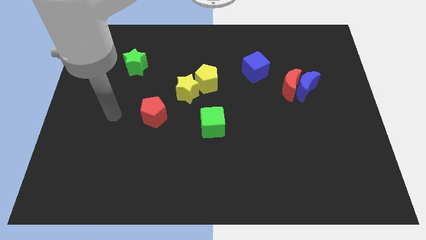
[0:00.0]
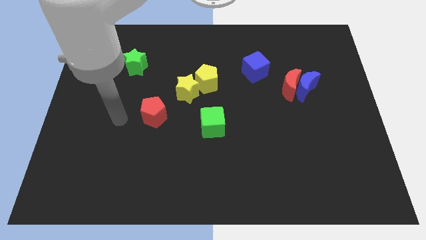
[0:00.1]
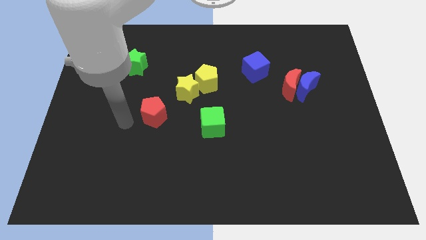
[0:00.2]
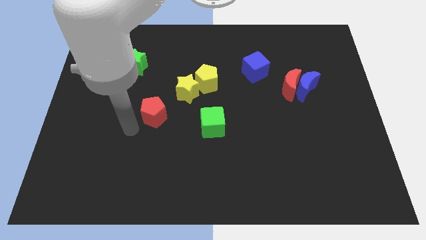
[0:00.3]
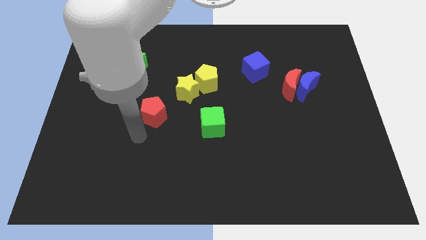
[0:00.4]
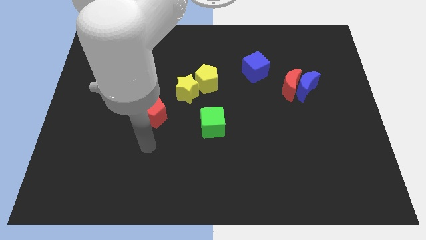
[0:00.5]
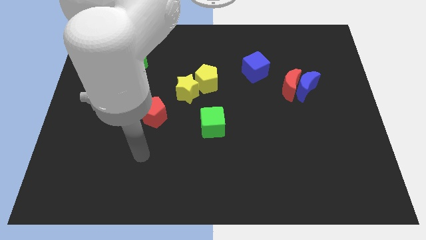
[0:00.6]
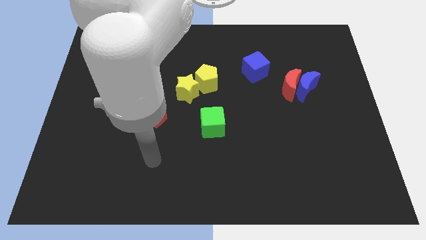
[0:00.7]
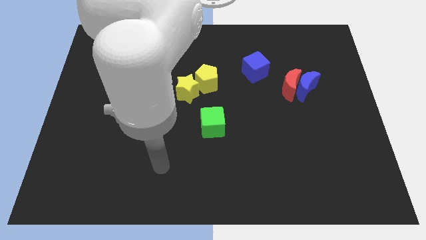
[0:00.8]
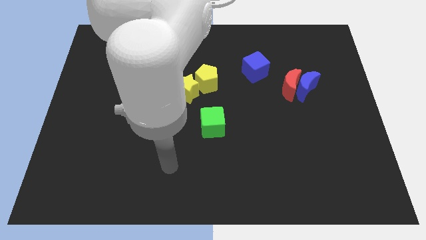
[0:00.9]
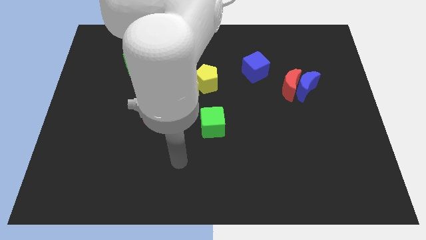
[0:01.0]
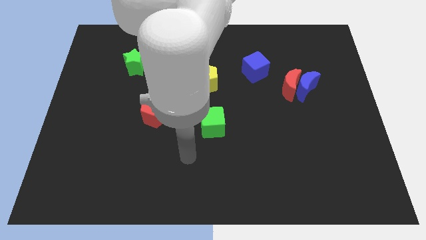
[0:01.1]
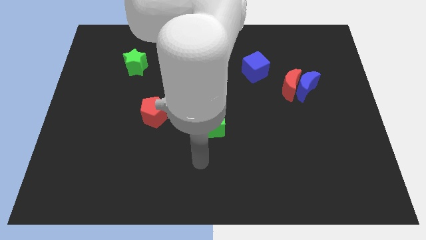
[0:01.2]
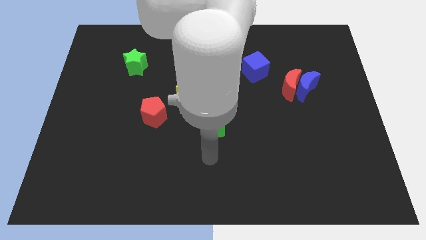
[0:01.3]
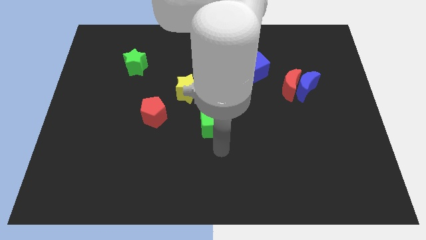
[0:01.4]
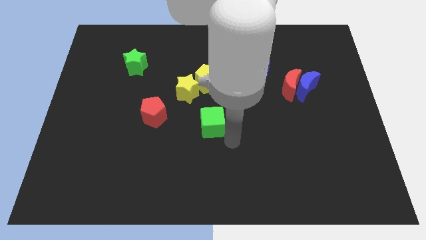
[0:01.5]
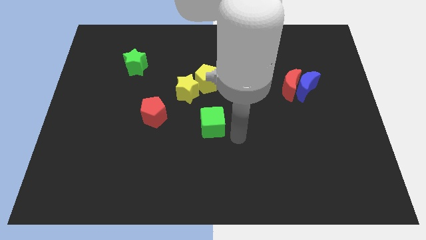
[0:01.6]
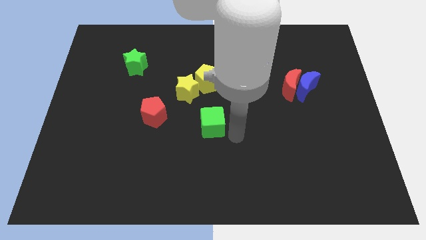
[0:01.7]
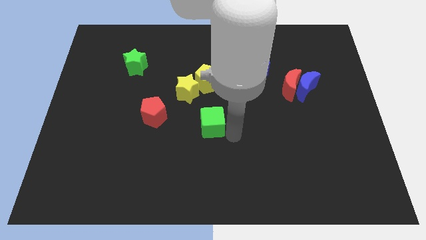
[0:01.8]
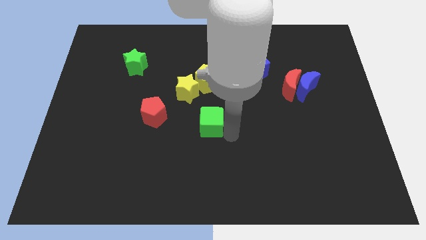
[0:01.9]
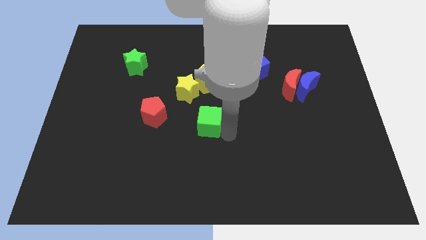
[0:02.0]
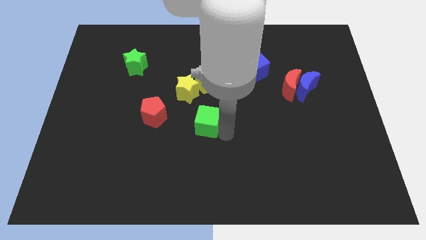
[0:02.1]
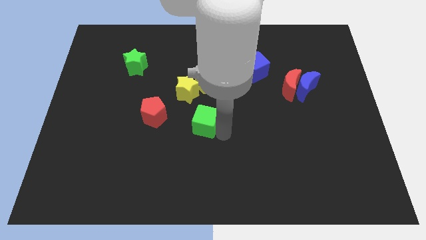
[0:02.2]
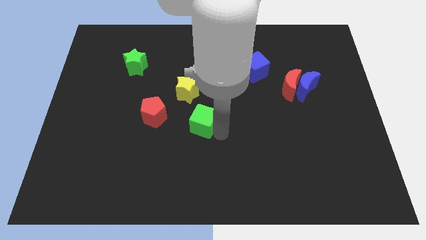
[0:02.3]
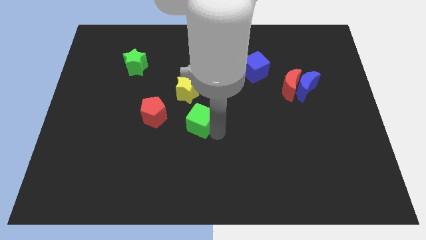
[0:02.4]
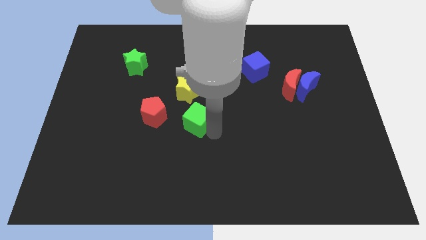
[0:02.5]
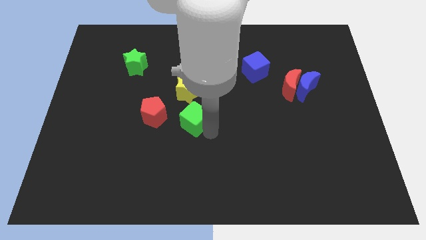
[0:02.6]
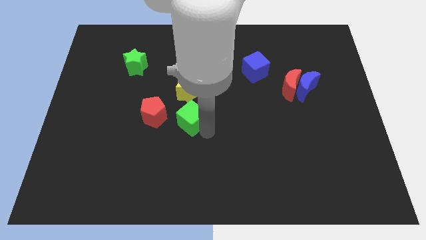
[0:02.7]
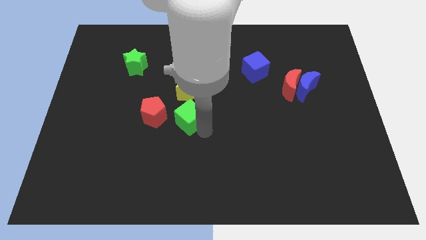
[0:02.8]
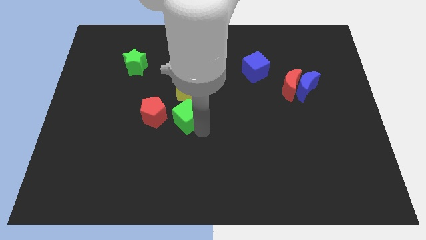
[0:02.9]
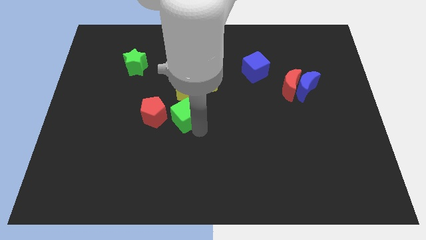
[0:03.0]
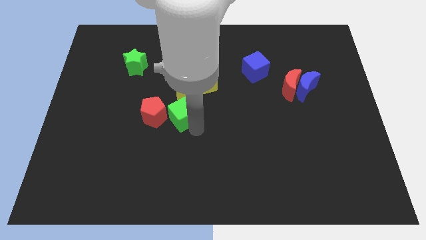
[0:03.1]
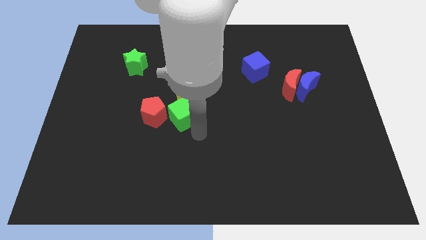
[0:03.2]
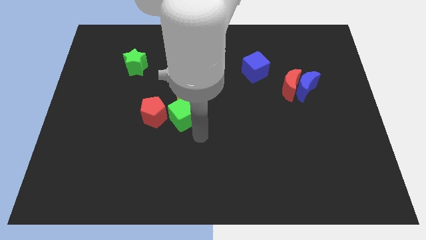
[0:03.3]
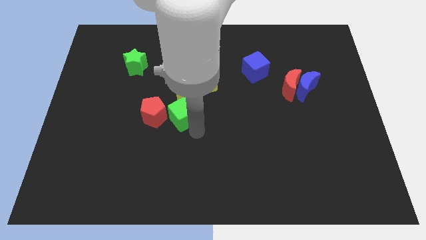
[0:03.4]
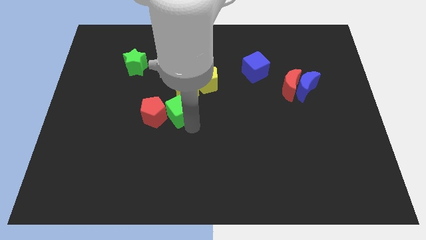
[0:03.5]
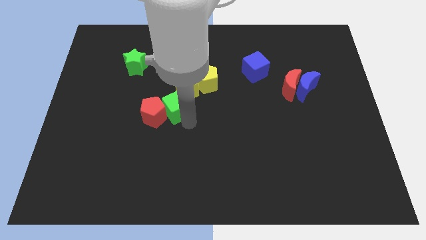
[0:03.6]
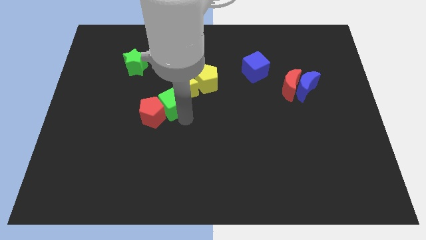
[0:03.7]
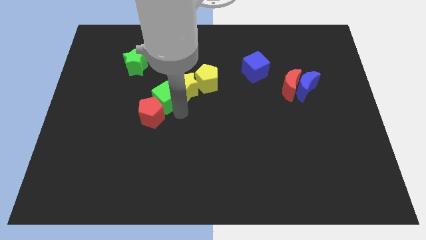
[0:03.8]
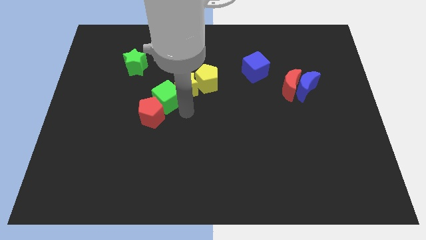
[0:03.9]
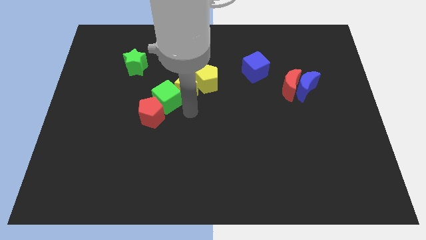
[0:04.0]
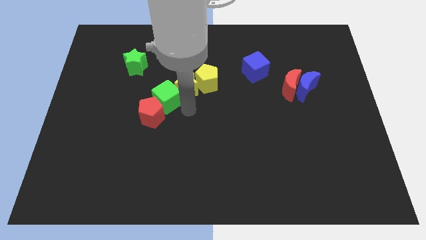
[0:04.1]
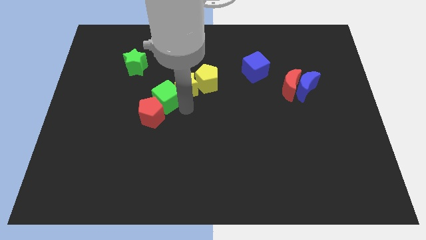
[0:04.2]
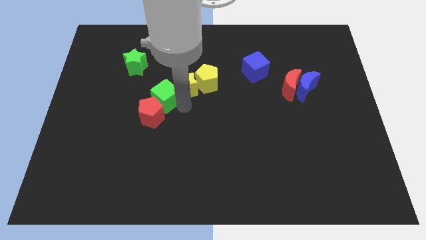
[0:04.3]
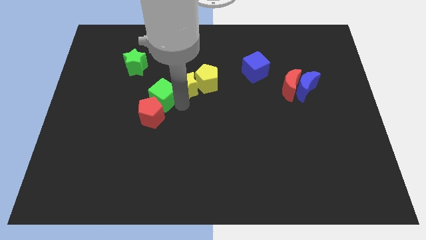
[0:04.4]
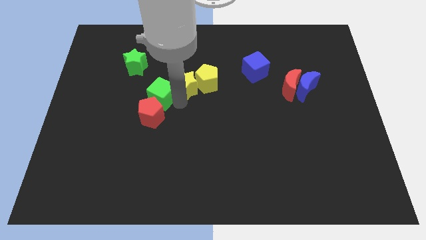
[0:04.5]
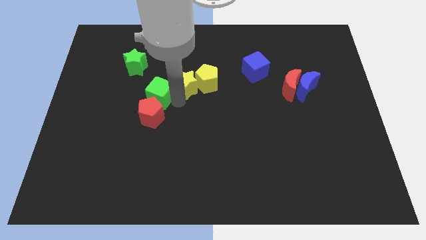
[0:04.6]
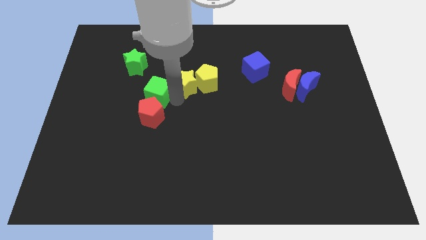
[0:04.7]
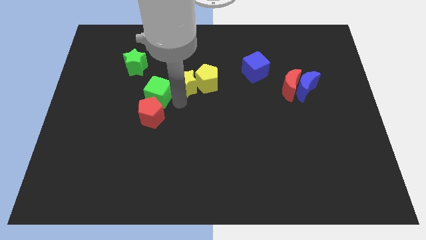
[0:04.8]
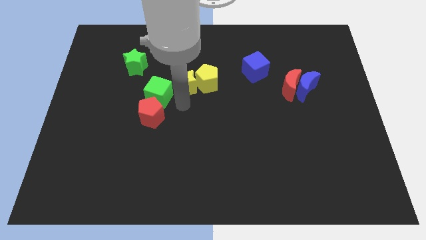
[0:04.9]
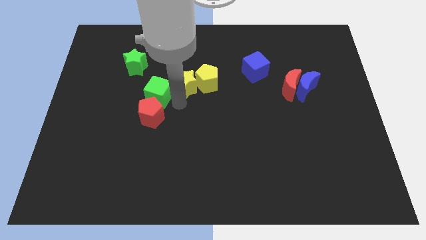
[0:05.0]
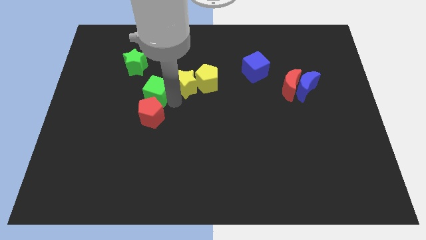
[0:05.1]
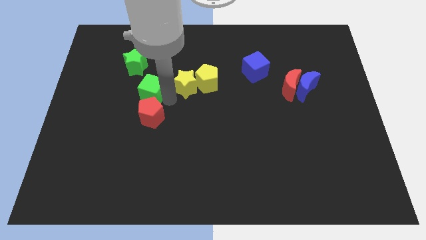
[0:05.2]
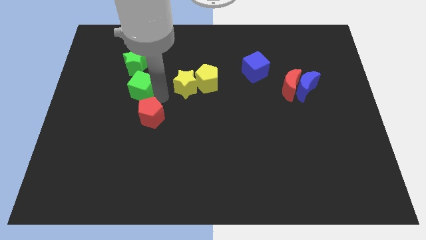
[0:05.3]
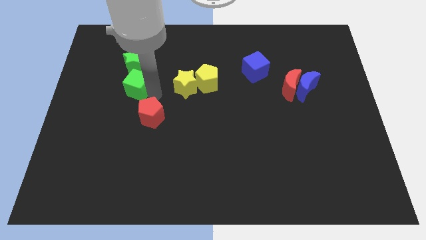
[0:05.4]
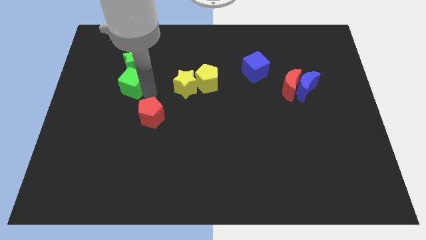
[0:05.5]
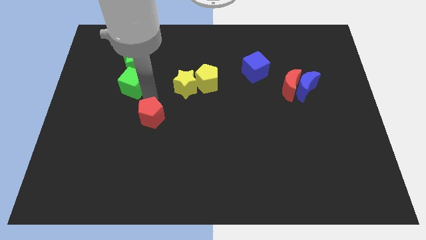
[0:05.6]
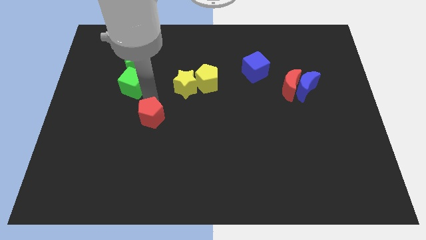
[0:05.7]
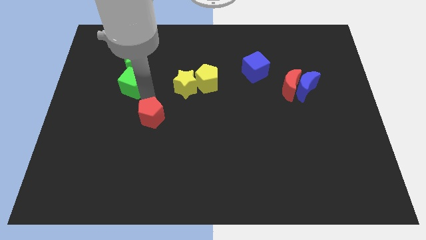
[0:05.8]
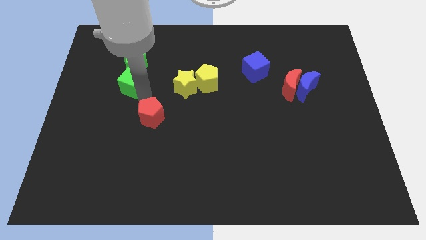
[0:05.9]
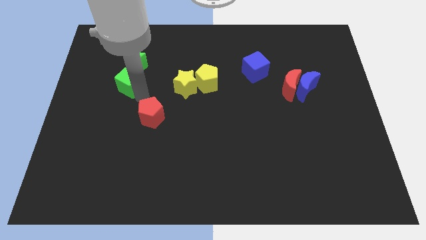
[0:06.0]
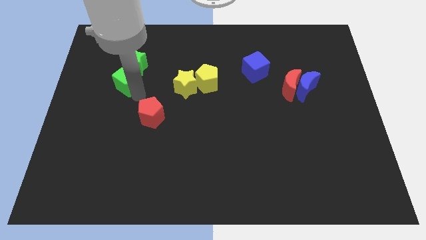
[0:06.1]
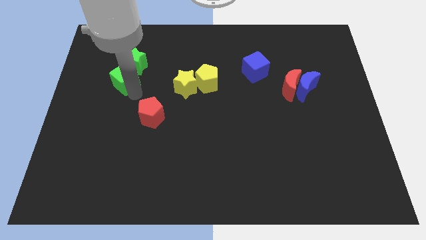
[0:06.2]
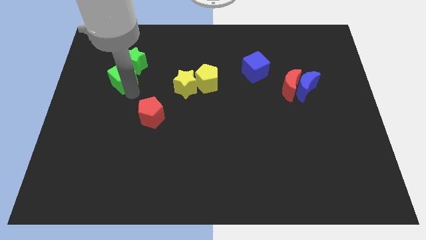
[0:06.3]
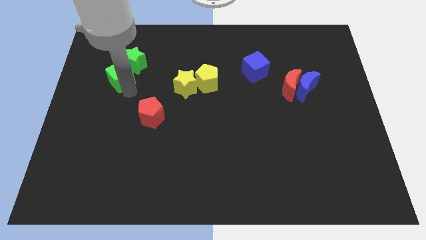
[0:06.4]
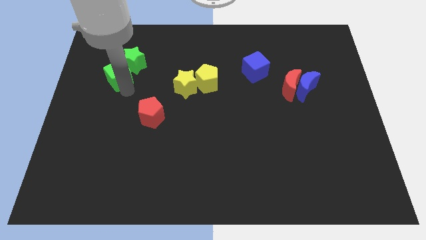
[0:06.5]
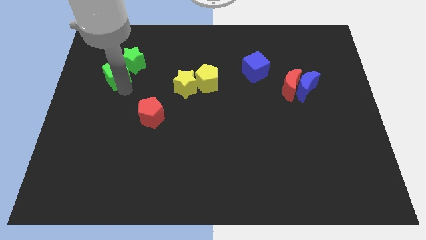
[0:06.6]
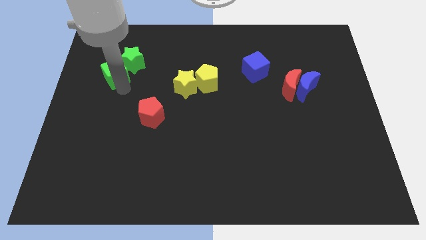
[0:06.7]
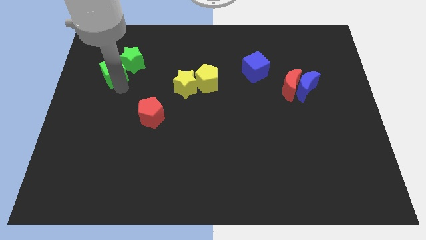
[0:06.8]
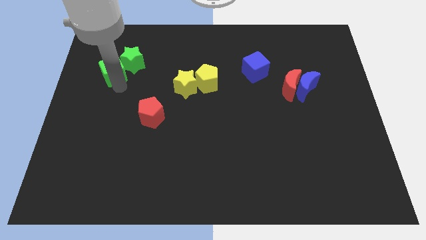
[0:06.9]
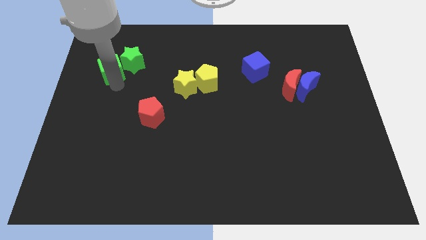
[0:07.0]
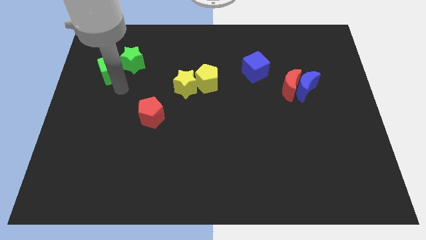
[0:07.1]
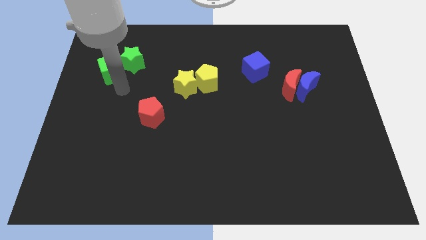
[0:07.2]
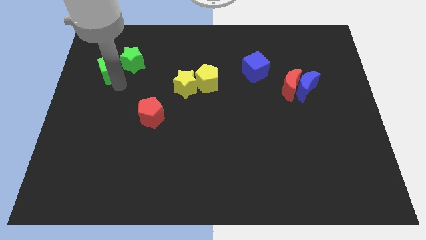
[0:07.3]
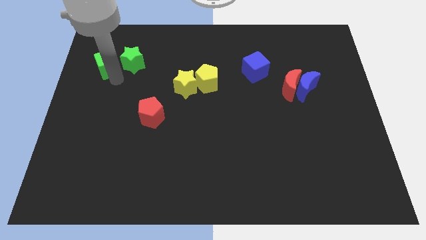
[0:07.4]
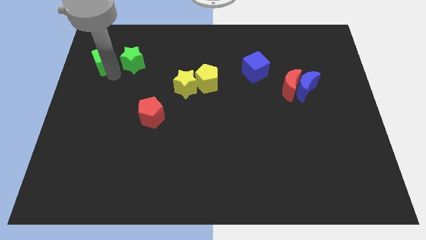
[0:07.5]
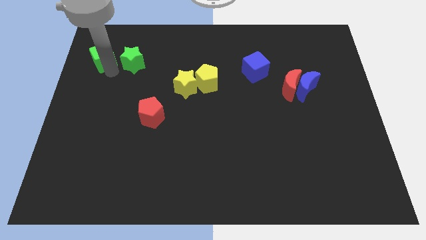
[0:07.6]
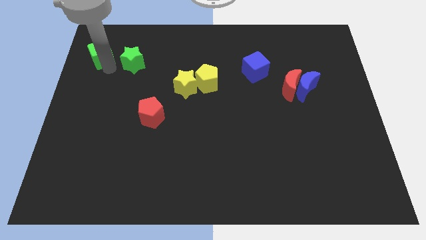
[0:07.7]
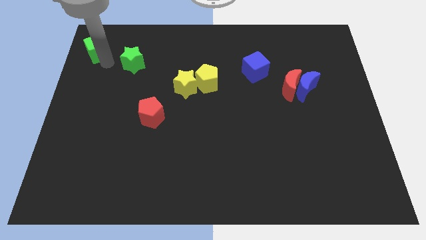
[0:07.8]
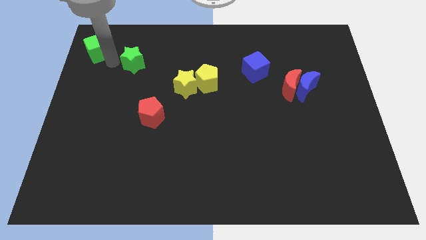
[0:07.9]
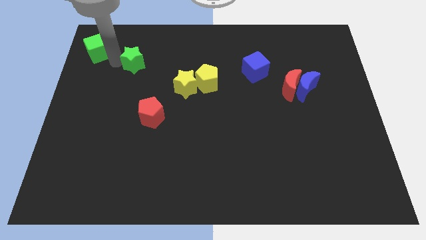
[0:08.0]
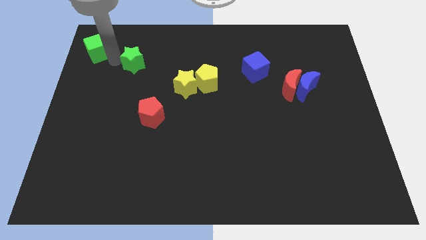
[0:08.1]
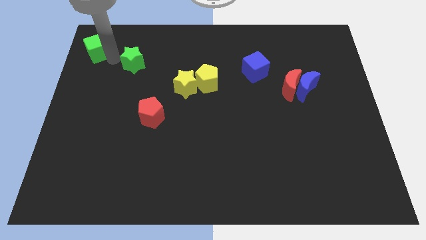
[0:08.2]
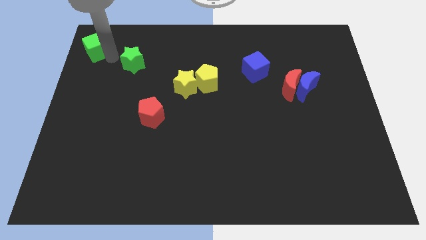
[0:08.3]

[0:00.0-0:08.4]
move the green cube to the top left of the board
